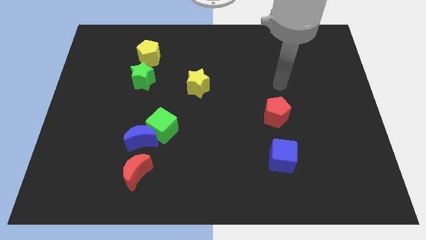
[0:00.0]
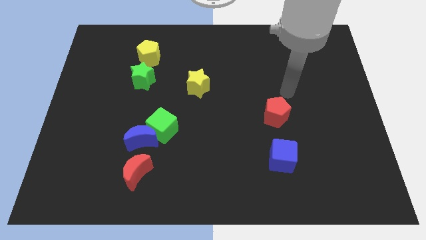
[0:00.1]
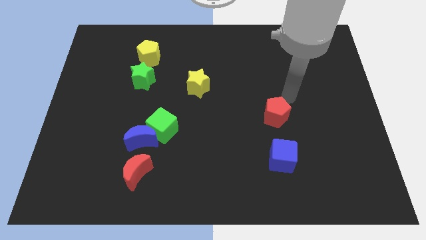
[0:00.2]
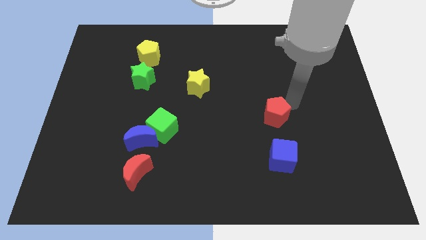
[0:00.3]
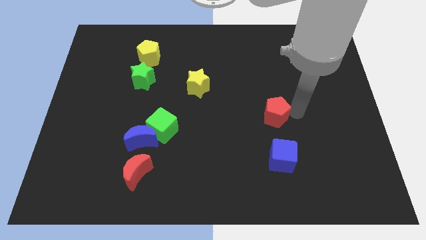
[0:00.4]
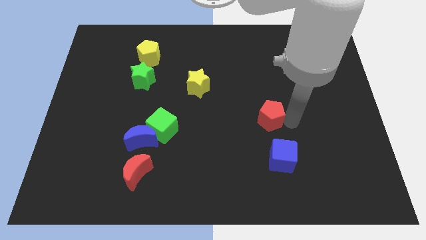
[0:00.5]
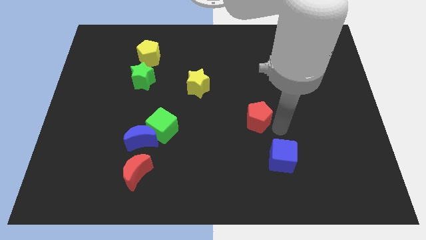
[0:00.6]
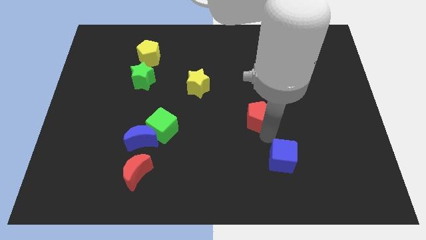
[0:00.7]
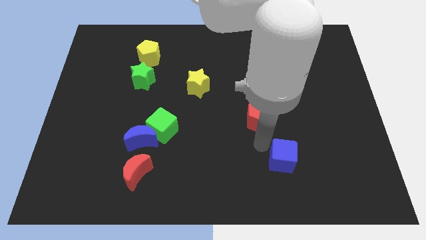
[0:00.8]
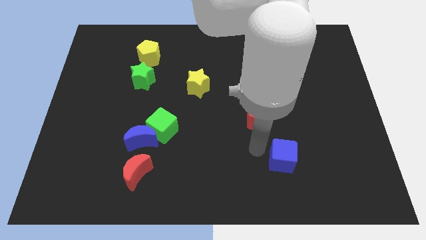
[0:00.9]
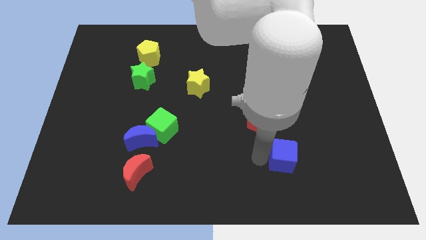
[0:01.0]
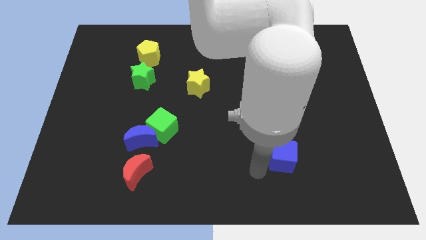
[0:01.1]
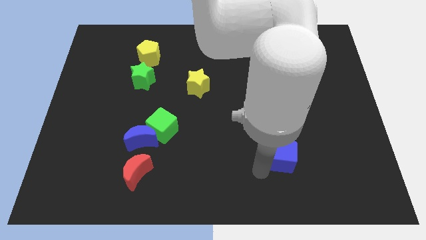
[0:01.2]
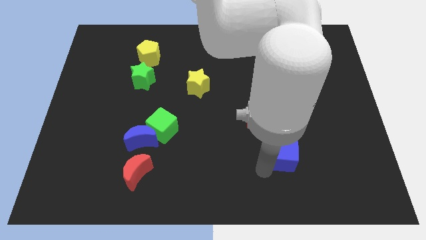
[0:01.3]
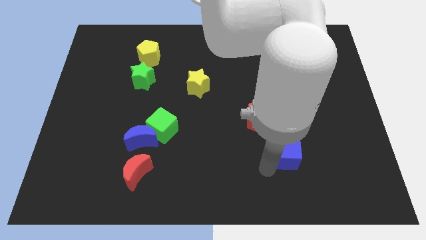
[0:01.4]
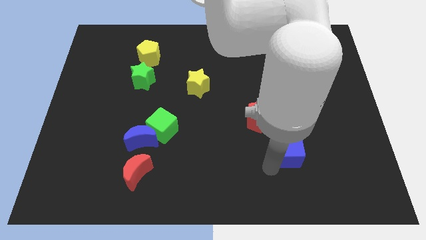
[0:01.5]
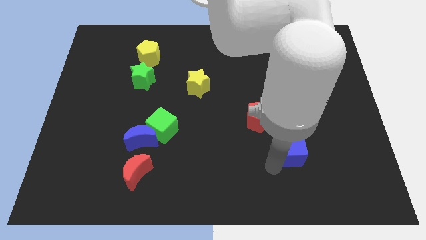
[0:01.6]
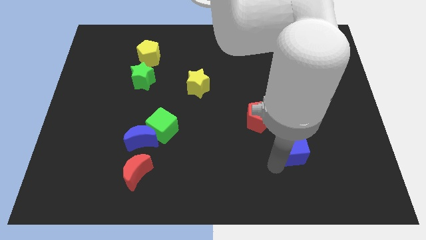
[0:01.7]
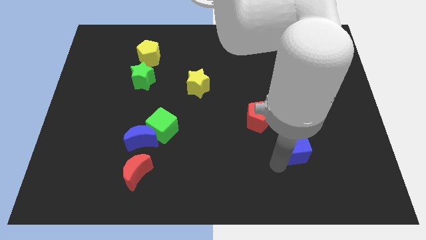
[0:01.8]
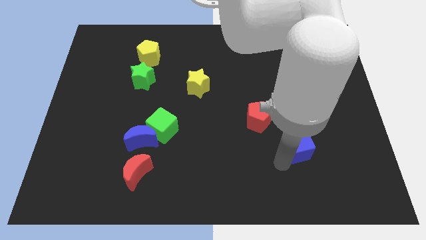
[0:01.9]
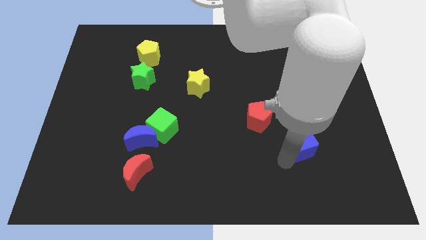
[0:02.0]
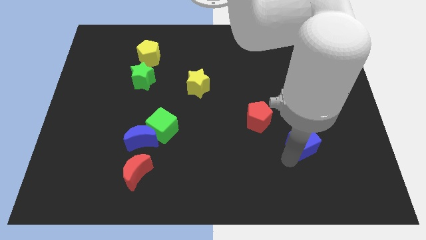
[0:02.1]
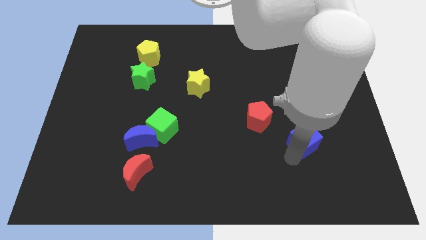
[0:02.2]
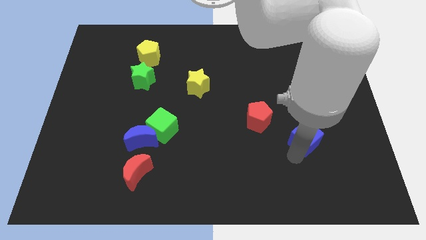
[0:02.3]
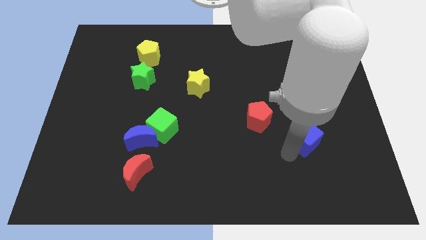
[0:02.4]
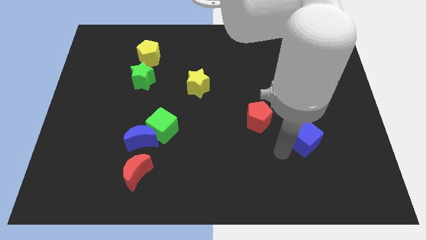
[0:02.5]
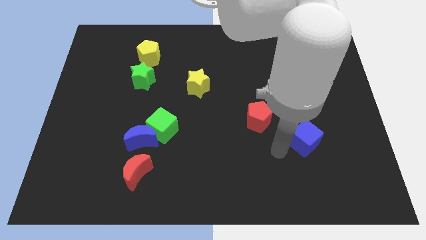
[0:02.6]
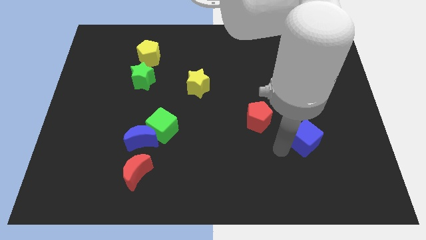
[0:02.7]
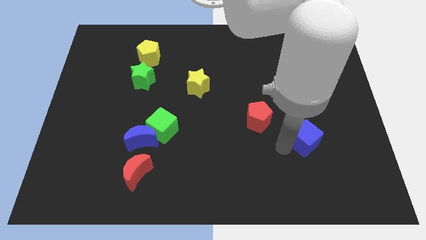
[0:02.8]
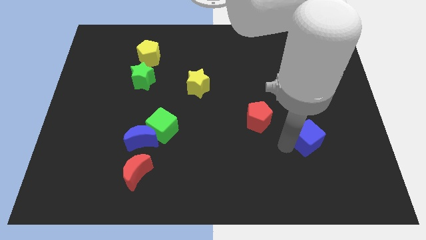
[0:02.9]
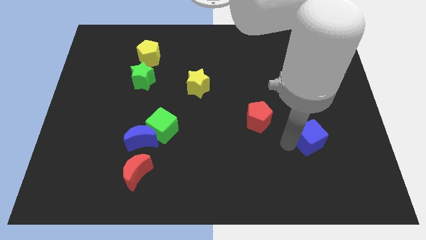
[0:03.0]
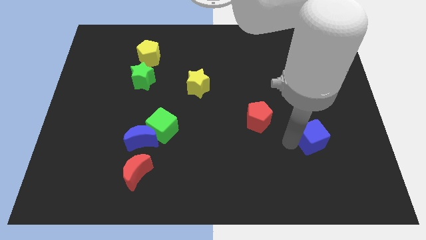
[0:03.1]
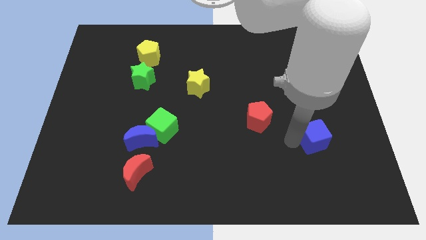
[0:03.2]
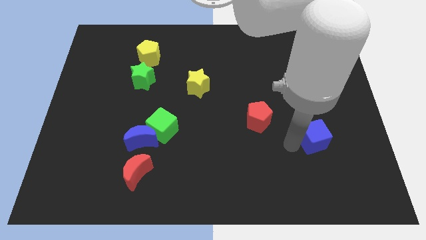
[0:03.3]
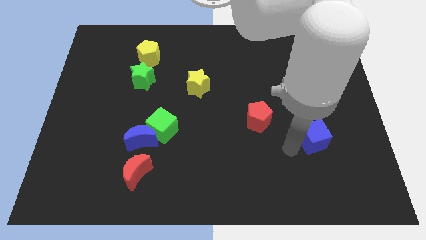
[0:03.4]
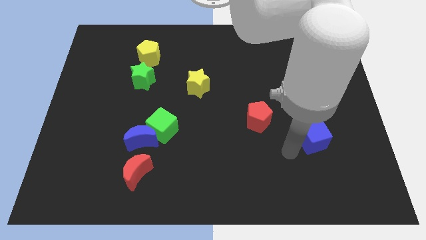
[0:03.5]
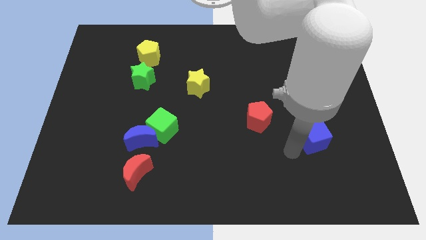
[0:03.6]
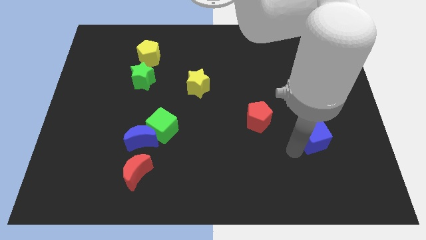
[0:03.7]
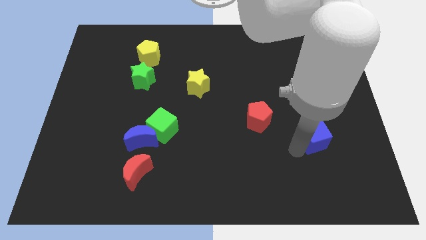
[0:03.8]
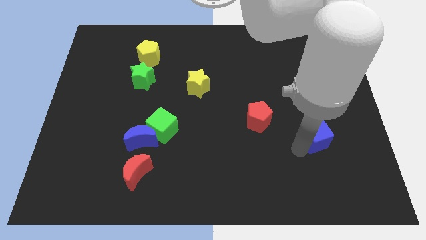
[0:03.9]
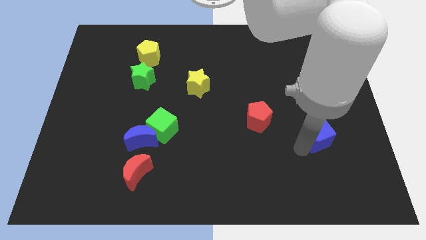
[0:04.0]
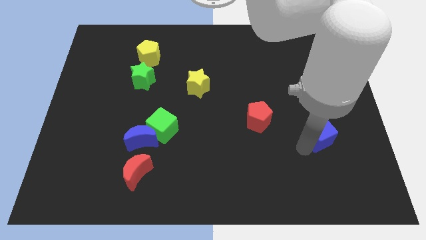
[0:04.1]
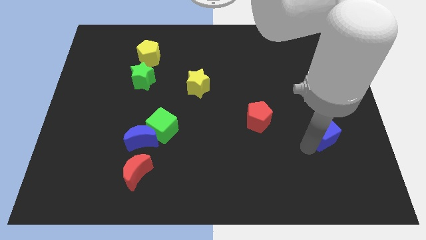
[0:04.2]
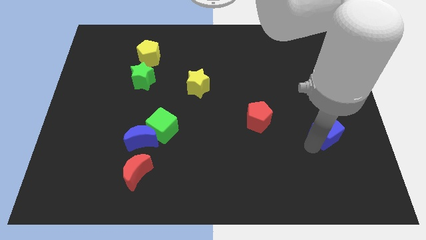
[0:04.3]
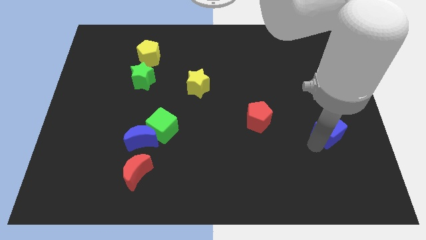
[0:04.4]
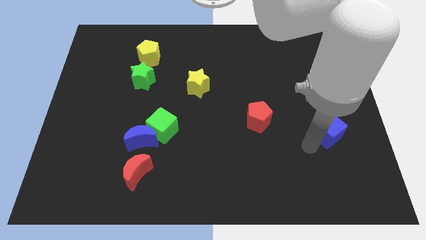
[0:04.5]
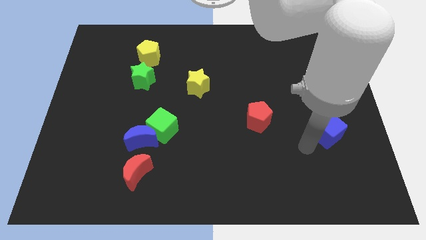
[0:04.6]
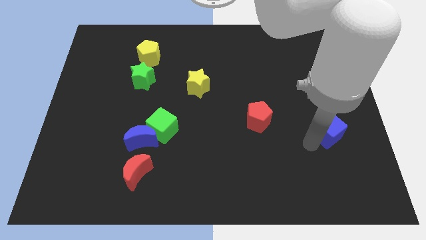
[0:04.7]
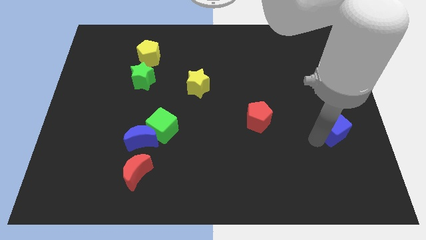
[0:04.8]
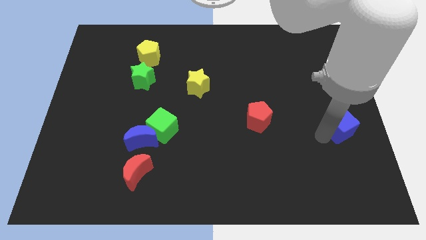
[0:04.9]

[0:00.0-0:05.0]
put the blue cube to the center right

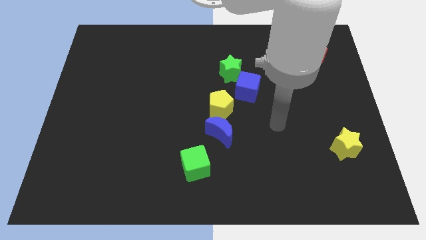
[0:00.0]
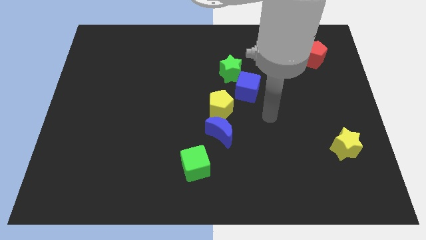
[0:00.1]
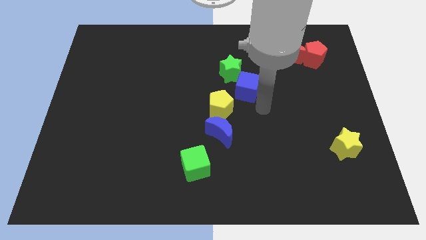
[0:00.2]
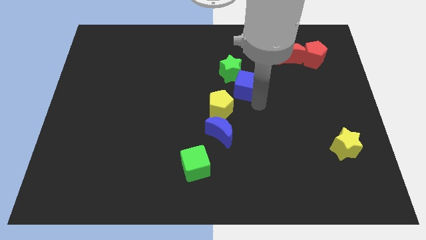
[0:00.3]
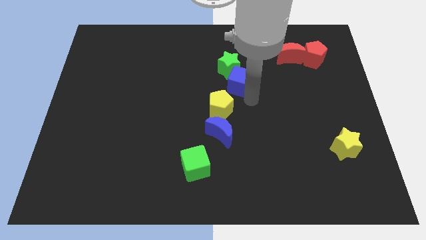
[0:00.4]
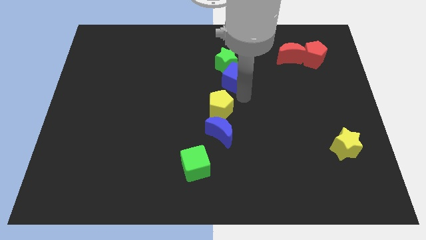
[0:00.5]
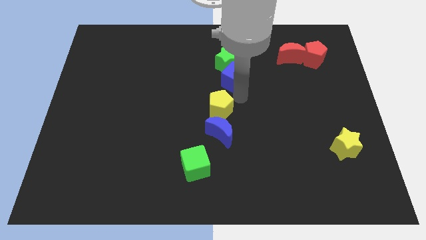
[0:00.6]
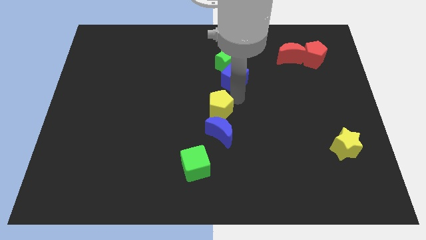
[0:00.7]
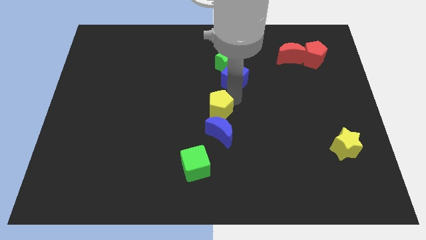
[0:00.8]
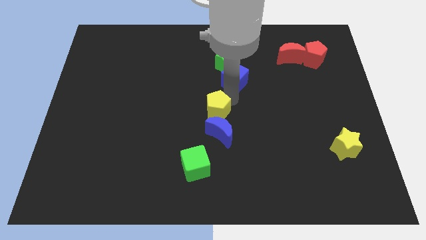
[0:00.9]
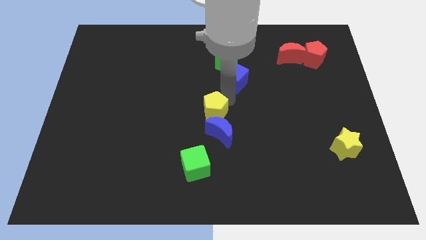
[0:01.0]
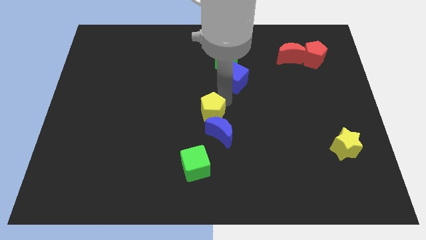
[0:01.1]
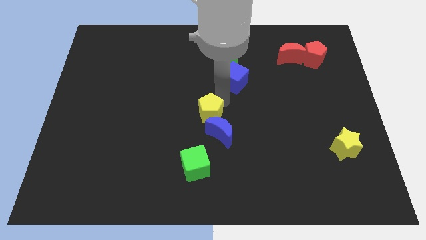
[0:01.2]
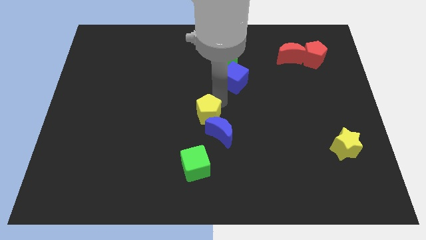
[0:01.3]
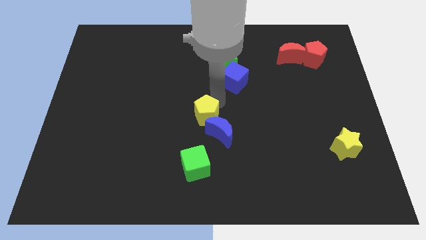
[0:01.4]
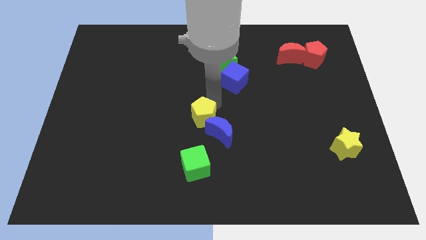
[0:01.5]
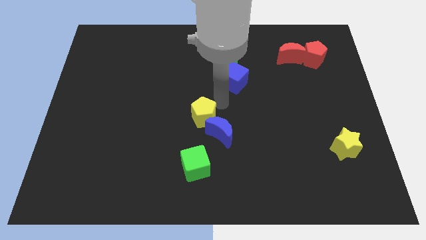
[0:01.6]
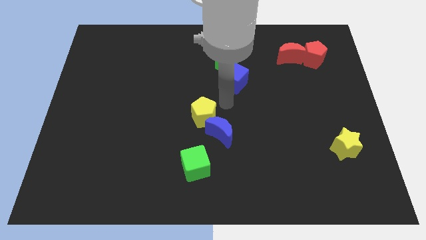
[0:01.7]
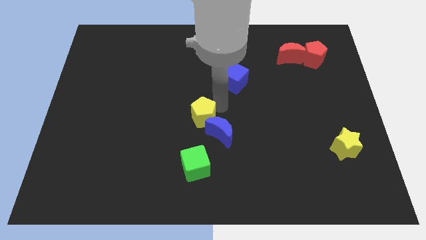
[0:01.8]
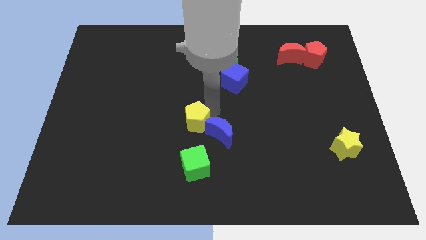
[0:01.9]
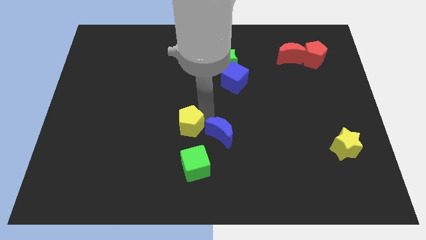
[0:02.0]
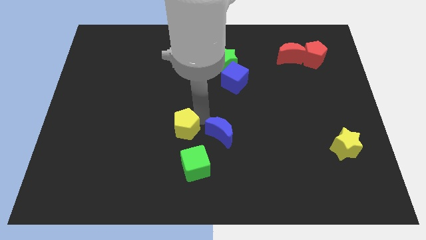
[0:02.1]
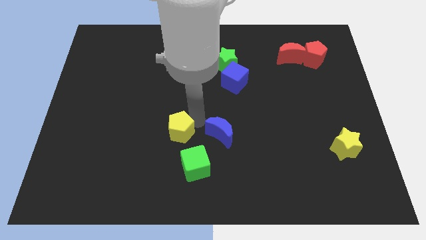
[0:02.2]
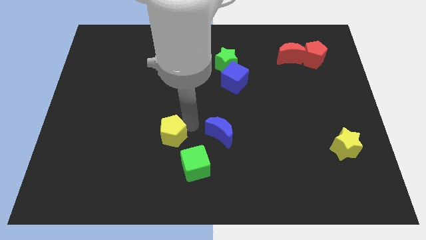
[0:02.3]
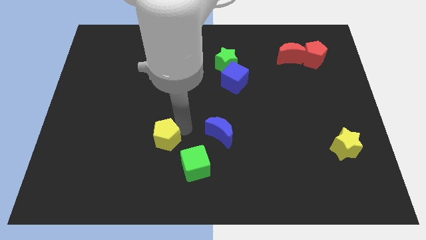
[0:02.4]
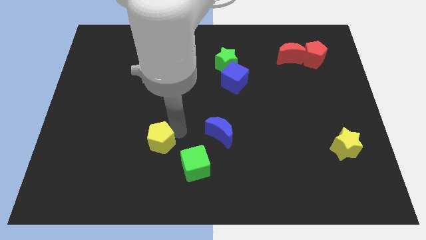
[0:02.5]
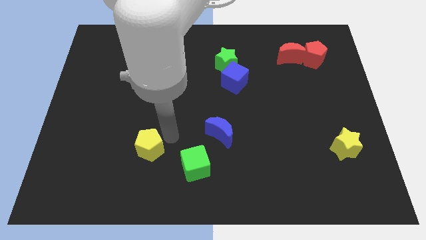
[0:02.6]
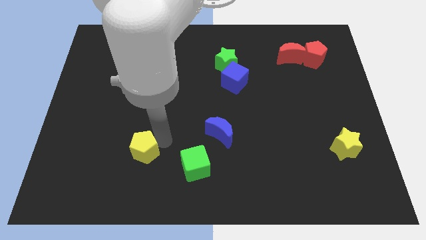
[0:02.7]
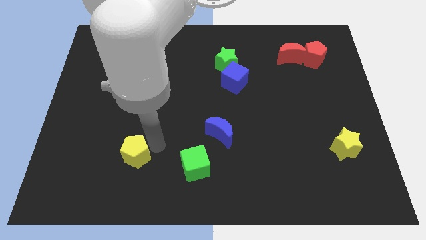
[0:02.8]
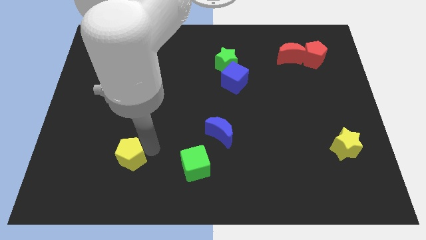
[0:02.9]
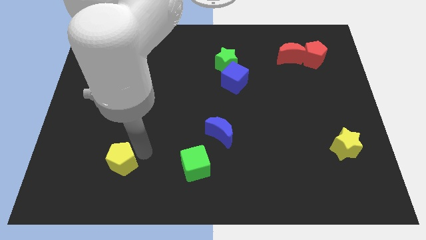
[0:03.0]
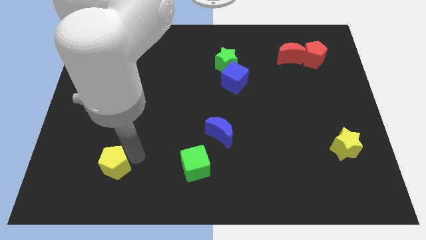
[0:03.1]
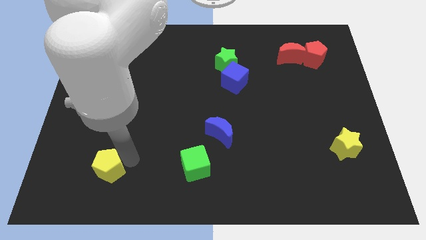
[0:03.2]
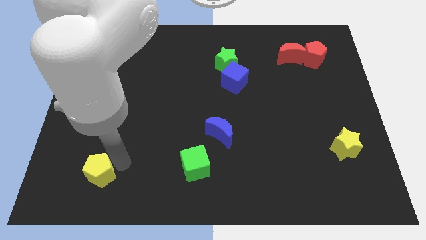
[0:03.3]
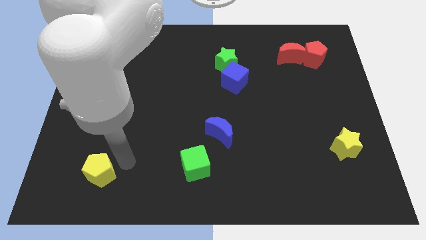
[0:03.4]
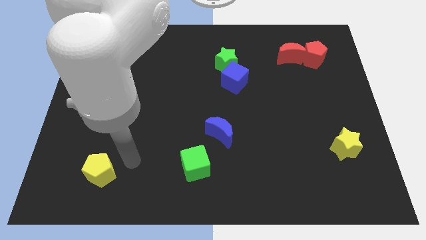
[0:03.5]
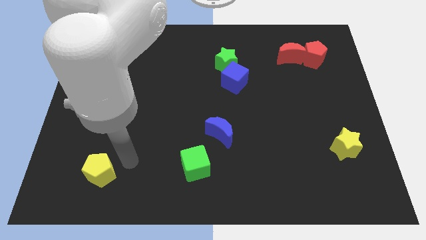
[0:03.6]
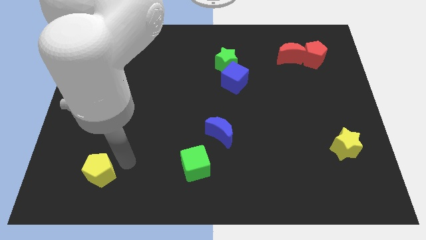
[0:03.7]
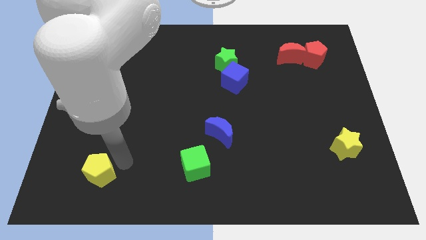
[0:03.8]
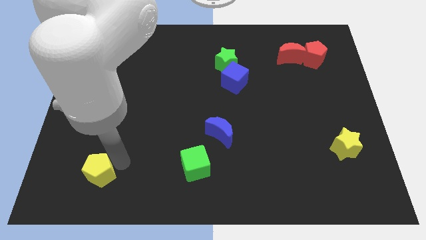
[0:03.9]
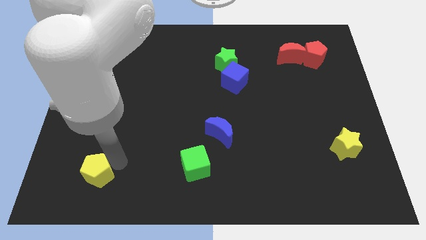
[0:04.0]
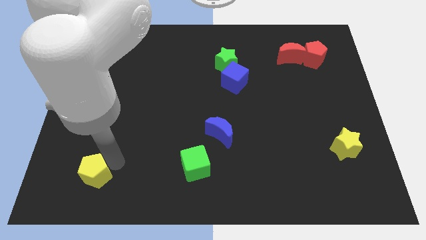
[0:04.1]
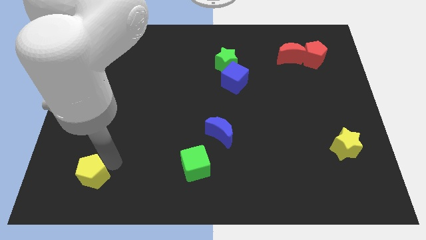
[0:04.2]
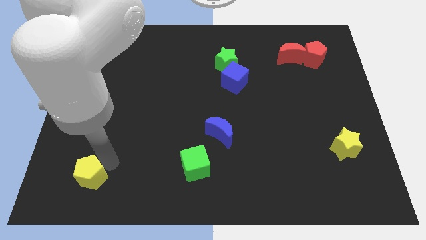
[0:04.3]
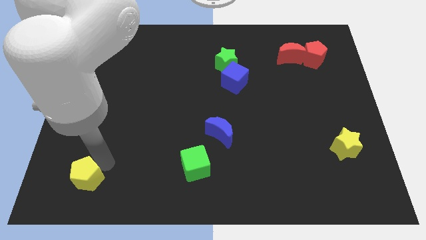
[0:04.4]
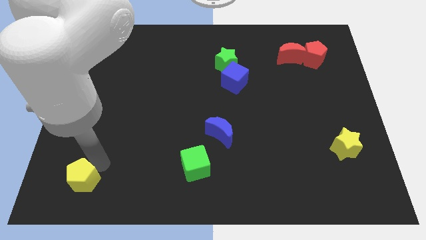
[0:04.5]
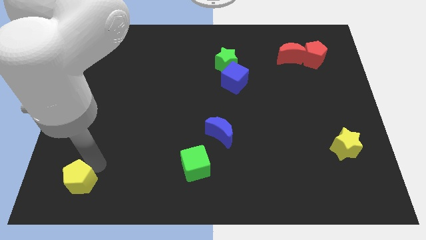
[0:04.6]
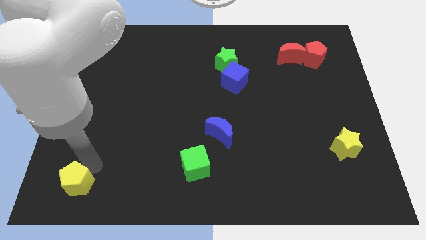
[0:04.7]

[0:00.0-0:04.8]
push the yellow pentagon to the bottom left corner
